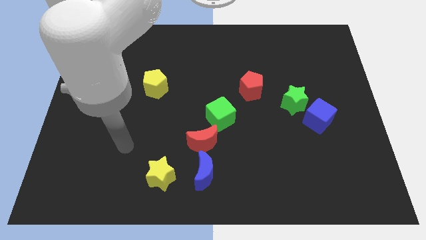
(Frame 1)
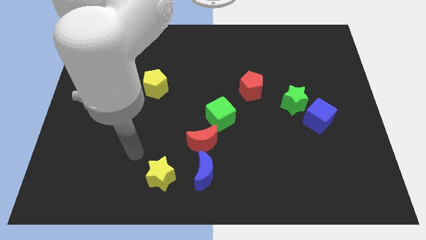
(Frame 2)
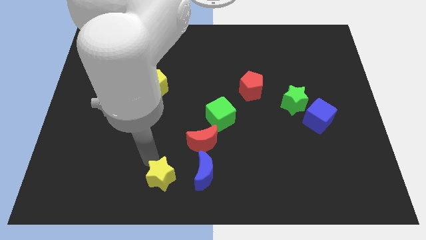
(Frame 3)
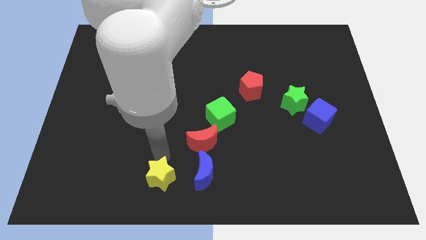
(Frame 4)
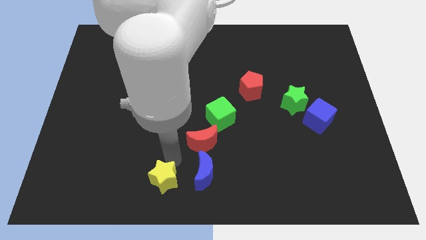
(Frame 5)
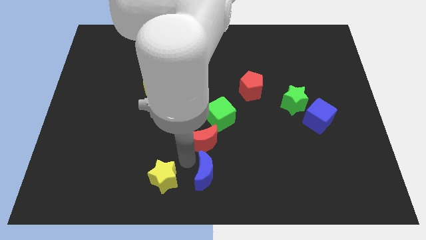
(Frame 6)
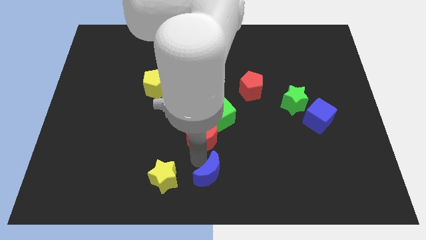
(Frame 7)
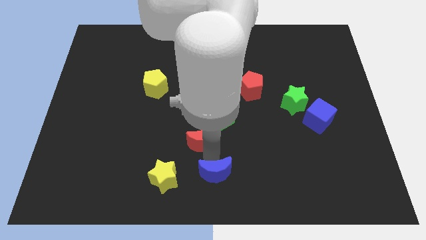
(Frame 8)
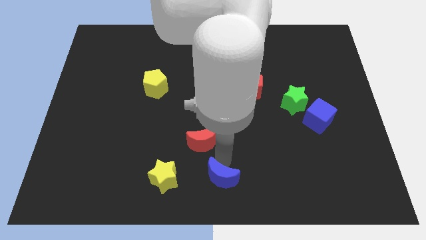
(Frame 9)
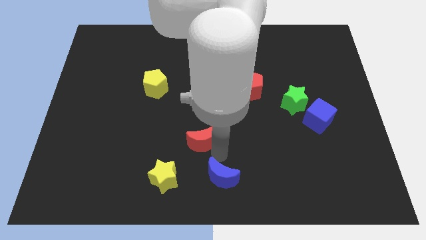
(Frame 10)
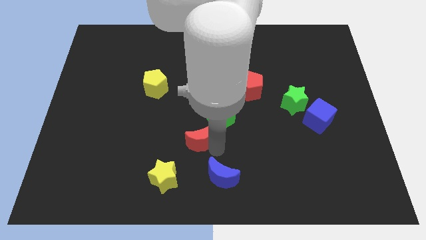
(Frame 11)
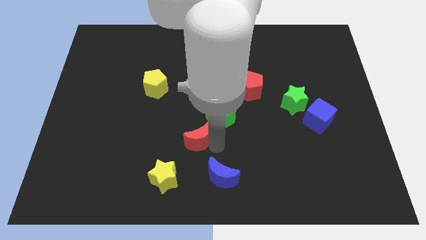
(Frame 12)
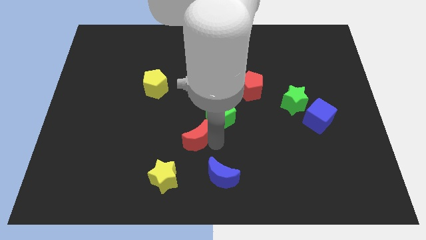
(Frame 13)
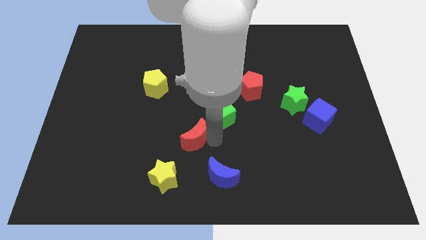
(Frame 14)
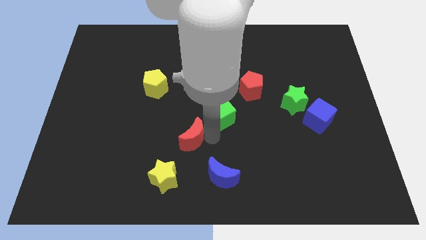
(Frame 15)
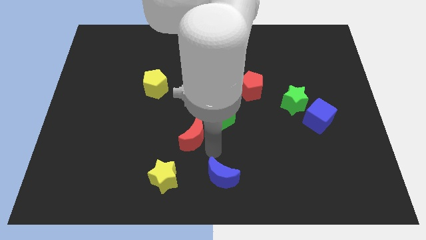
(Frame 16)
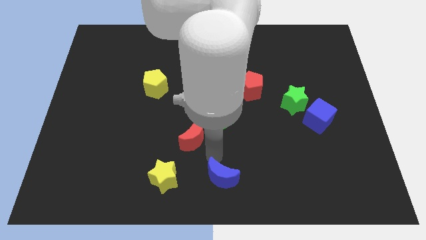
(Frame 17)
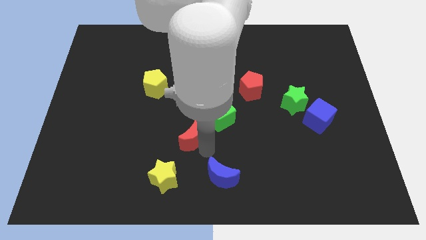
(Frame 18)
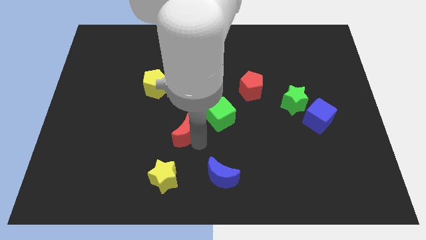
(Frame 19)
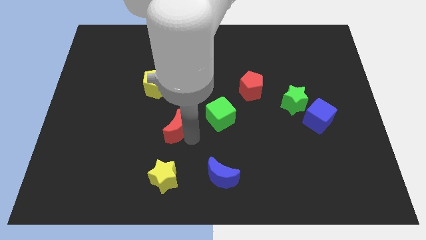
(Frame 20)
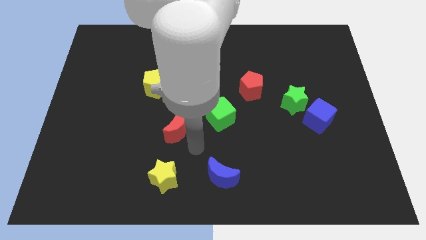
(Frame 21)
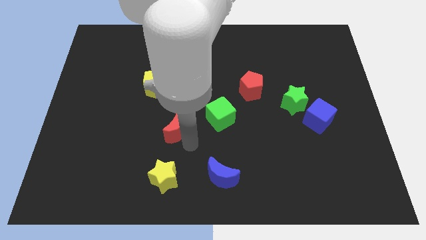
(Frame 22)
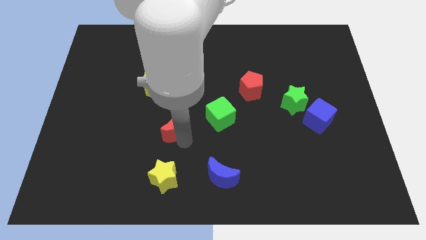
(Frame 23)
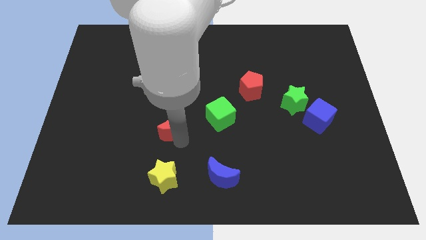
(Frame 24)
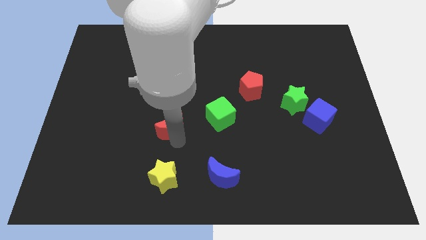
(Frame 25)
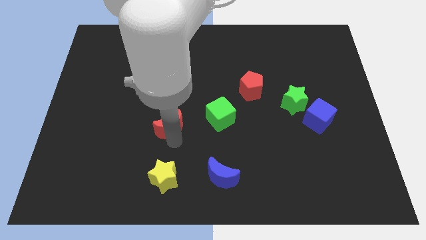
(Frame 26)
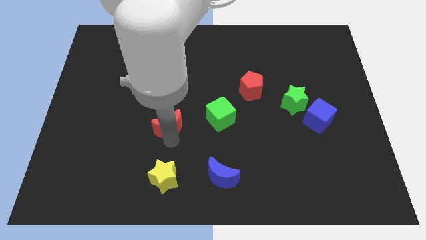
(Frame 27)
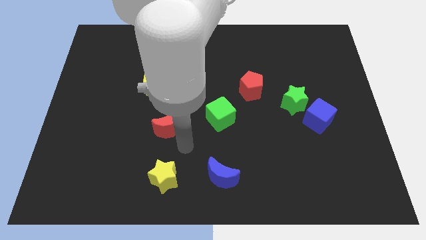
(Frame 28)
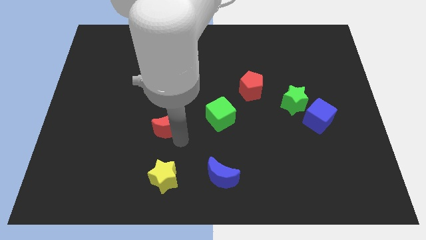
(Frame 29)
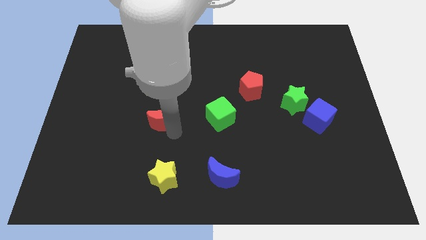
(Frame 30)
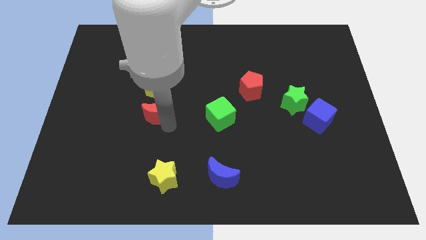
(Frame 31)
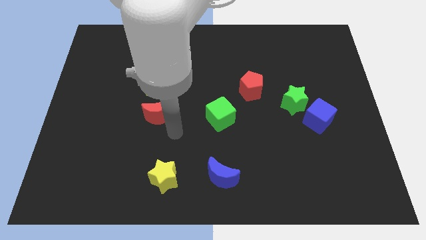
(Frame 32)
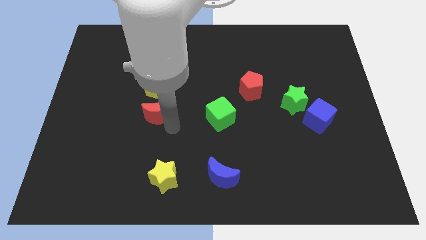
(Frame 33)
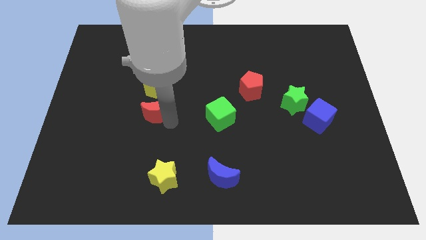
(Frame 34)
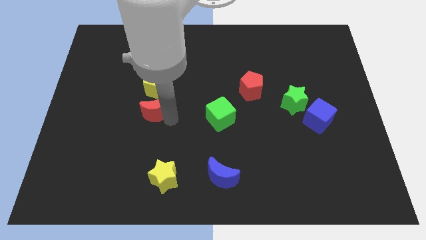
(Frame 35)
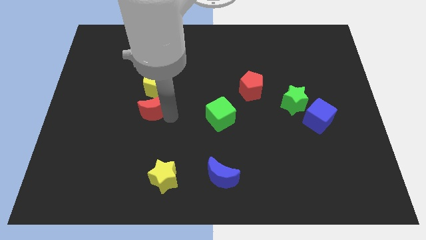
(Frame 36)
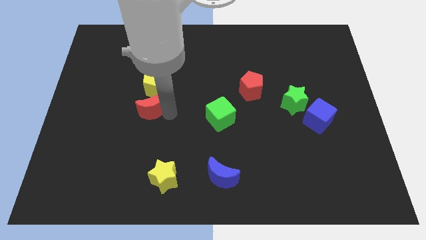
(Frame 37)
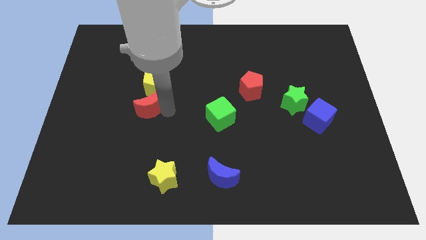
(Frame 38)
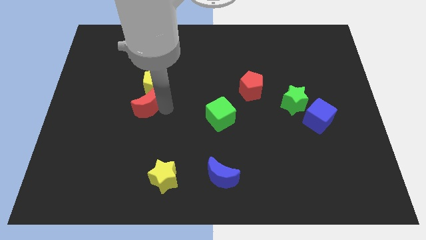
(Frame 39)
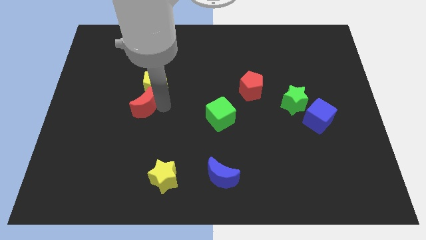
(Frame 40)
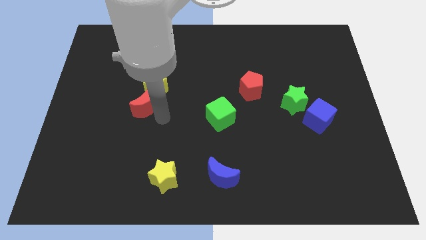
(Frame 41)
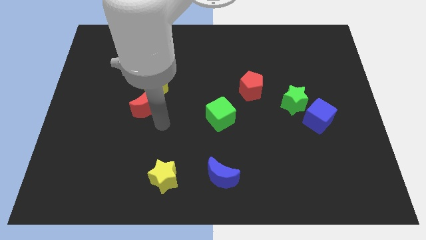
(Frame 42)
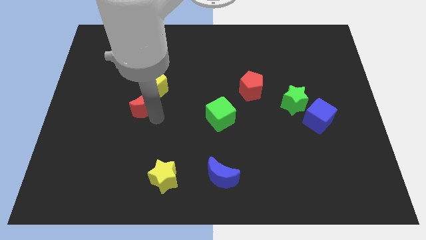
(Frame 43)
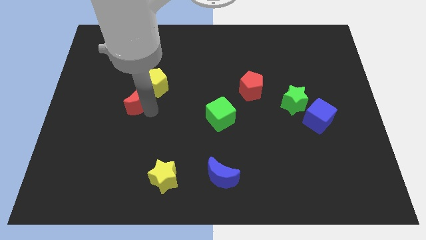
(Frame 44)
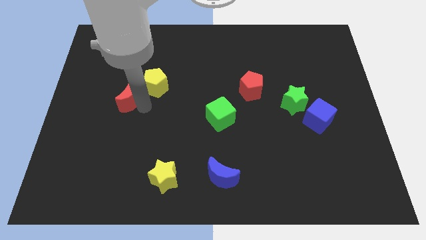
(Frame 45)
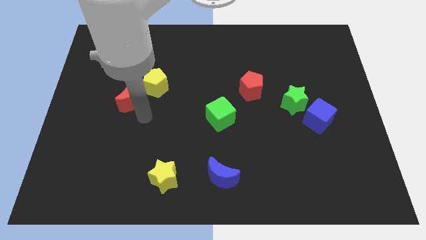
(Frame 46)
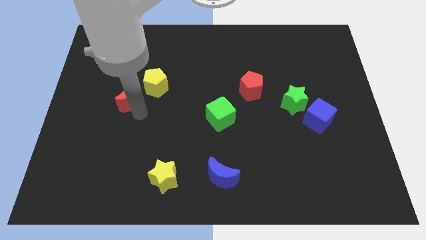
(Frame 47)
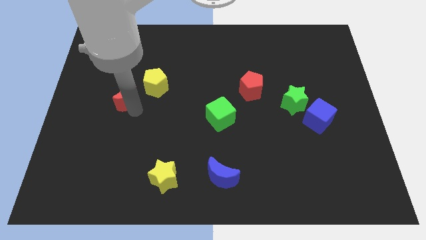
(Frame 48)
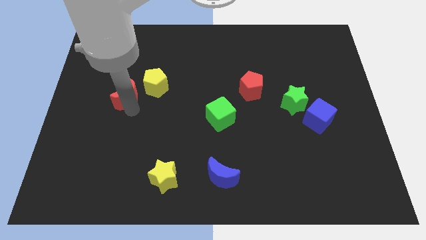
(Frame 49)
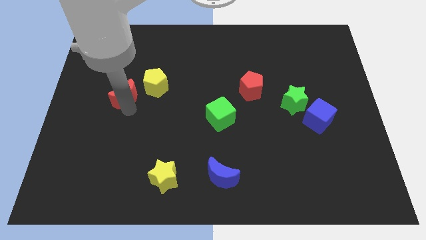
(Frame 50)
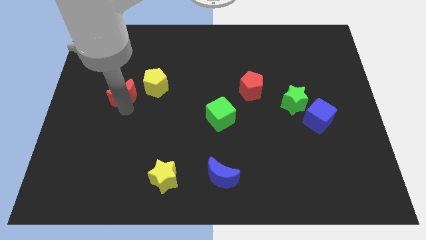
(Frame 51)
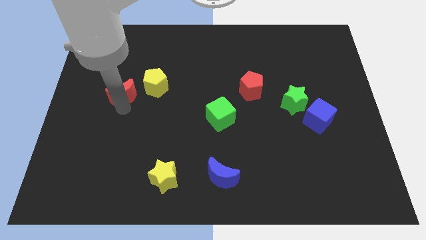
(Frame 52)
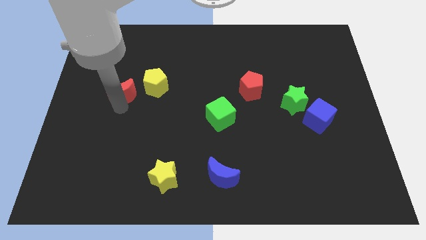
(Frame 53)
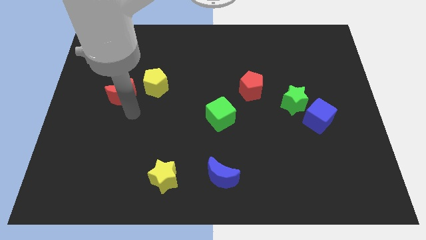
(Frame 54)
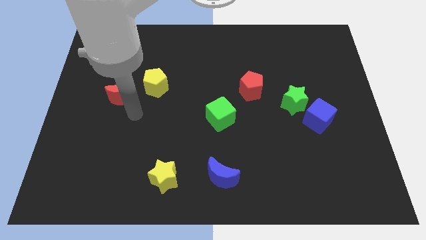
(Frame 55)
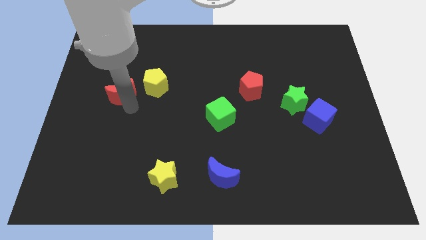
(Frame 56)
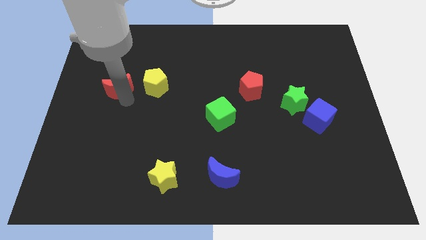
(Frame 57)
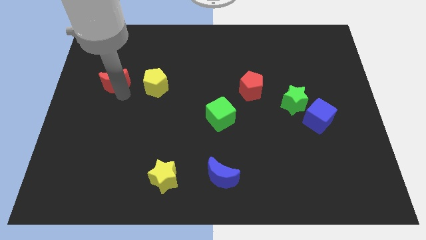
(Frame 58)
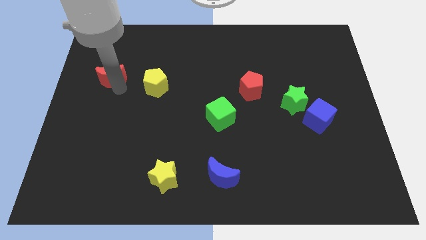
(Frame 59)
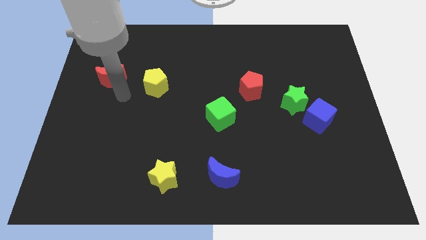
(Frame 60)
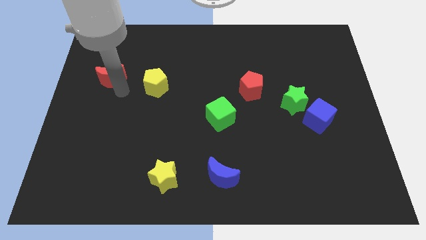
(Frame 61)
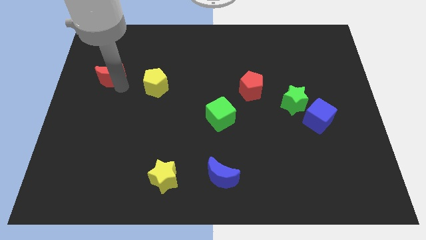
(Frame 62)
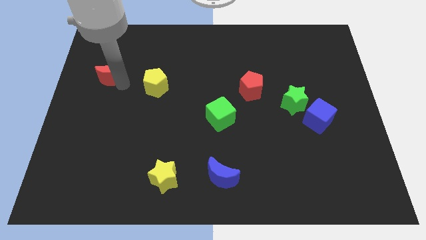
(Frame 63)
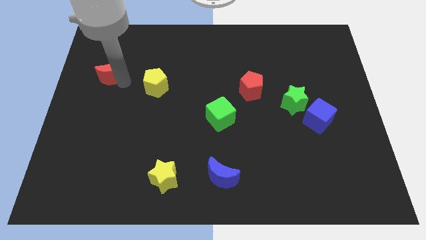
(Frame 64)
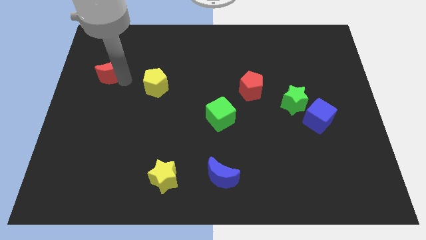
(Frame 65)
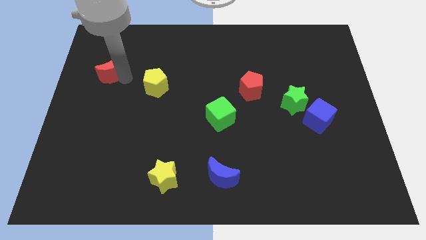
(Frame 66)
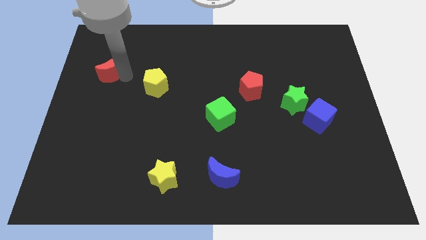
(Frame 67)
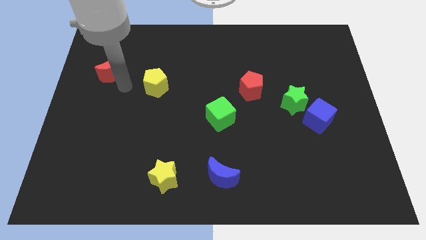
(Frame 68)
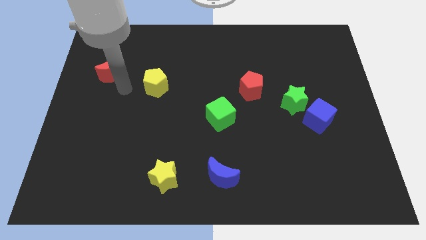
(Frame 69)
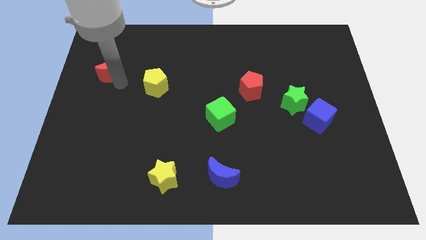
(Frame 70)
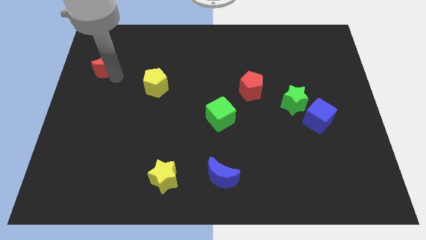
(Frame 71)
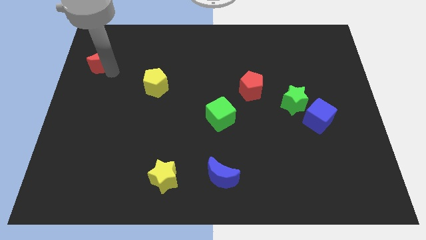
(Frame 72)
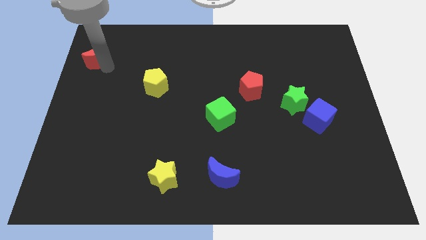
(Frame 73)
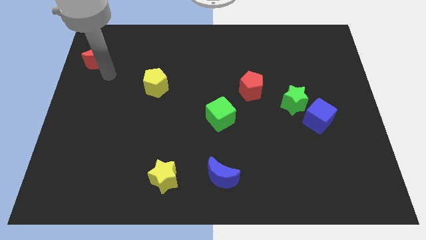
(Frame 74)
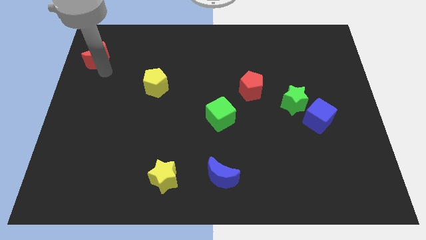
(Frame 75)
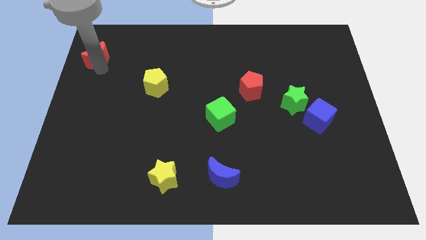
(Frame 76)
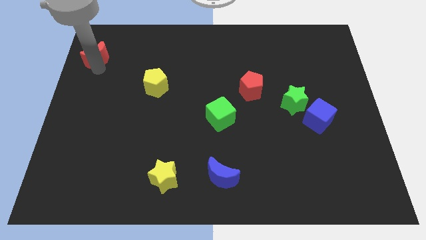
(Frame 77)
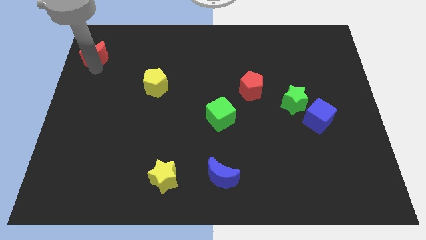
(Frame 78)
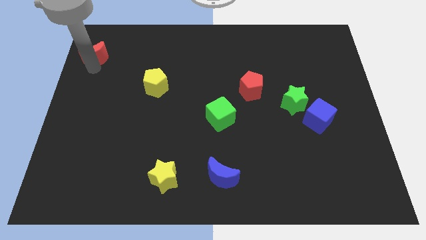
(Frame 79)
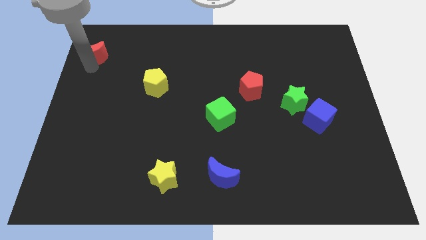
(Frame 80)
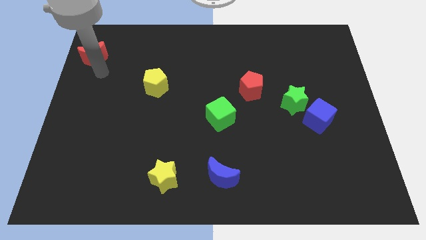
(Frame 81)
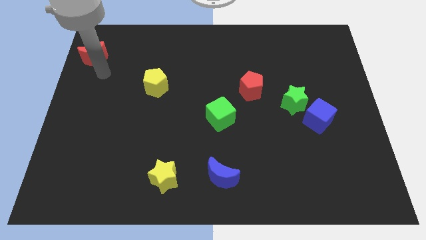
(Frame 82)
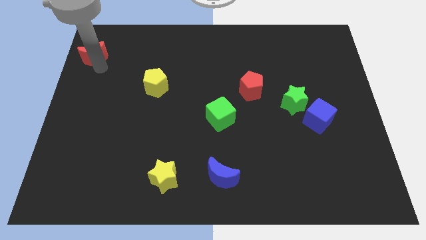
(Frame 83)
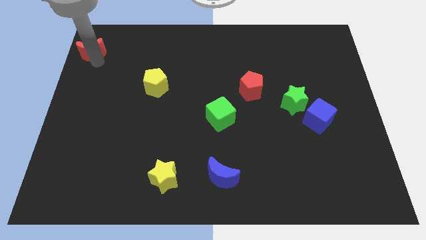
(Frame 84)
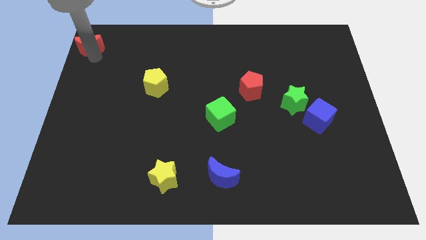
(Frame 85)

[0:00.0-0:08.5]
move the red moon to the top left
